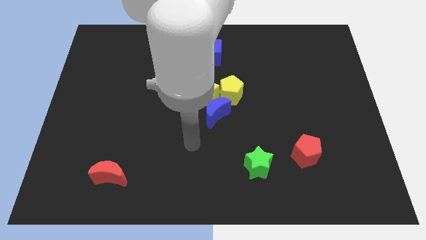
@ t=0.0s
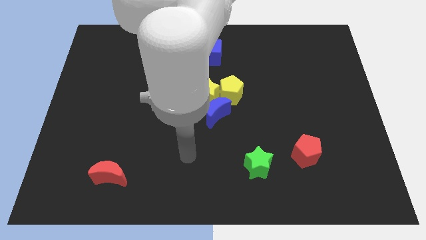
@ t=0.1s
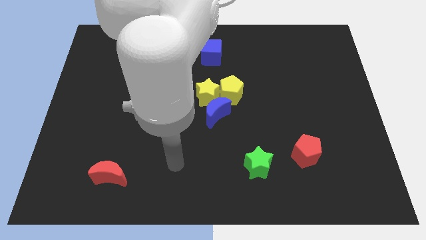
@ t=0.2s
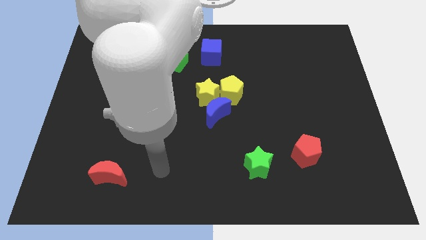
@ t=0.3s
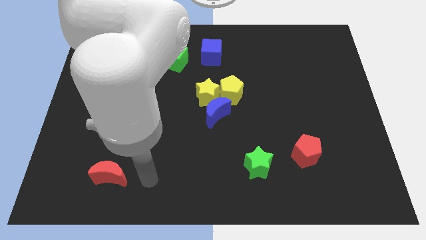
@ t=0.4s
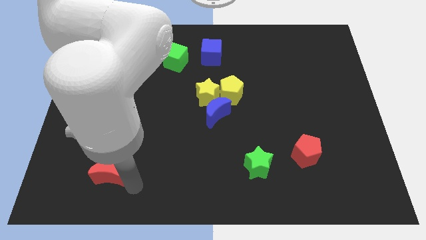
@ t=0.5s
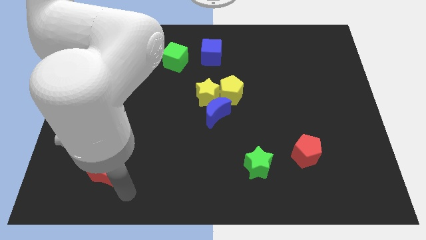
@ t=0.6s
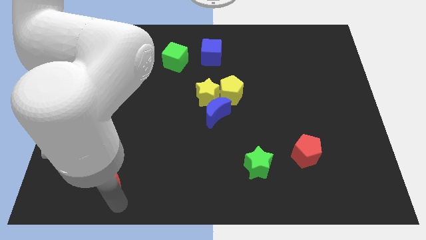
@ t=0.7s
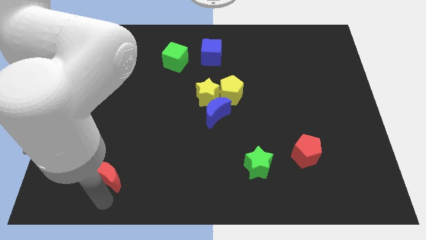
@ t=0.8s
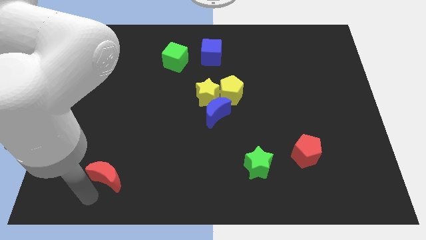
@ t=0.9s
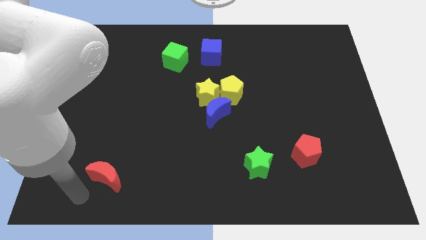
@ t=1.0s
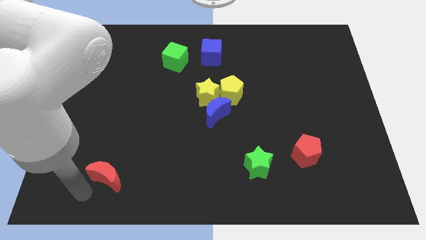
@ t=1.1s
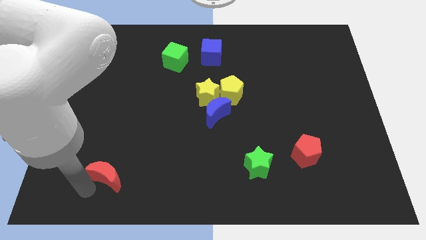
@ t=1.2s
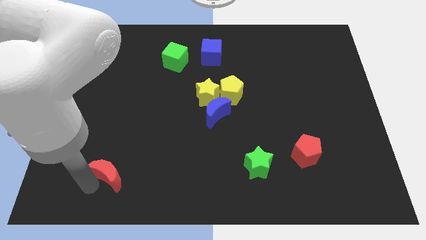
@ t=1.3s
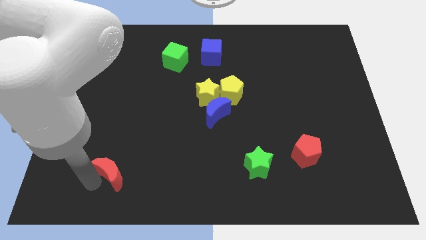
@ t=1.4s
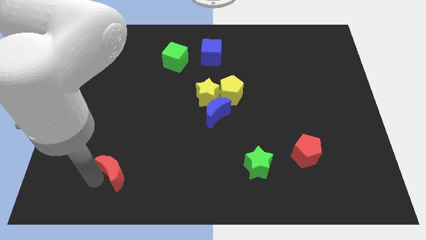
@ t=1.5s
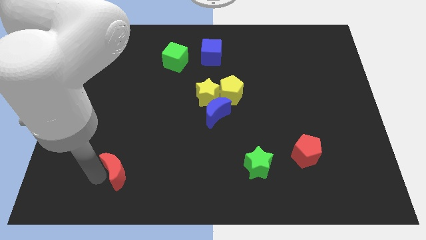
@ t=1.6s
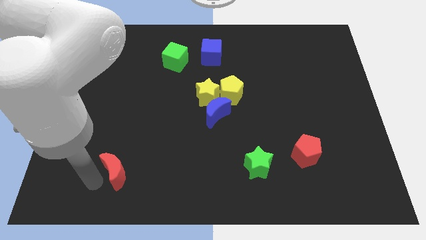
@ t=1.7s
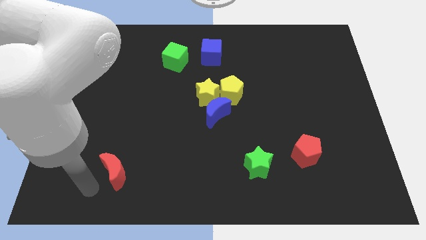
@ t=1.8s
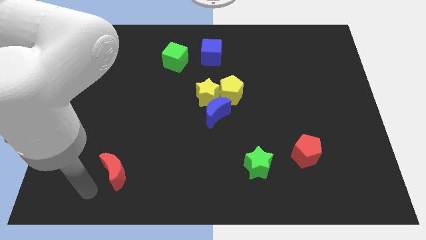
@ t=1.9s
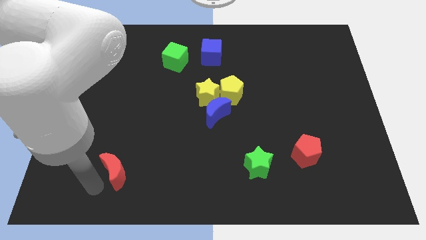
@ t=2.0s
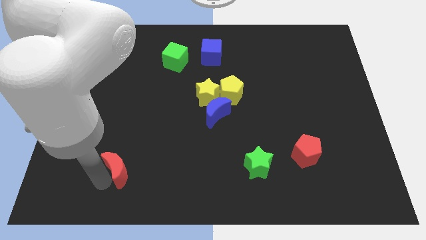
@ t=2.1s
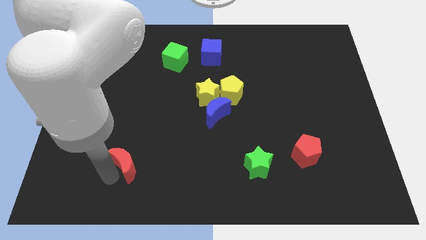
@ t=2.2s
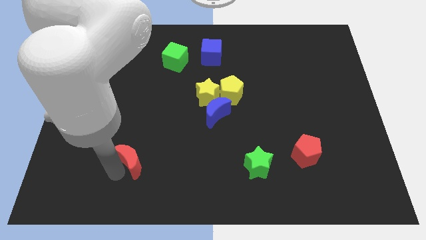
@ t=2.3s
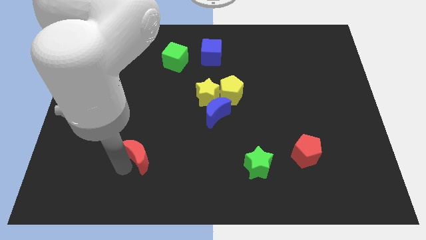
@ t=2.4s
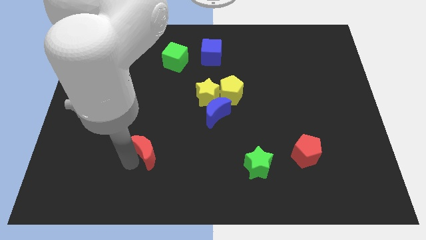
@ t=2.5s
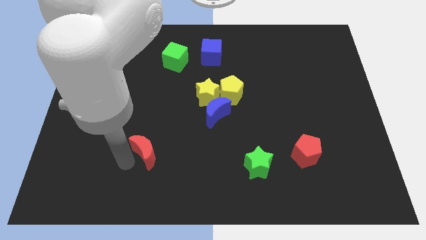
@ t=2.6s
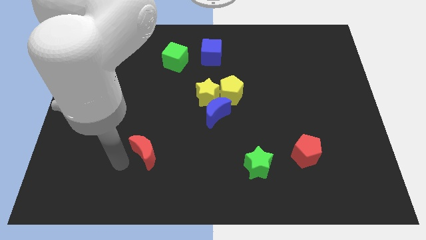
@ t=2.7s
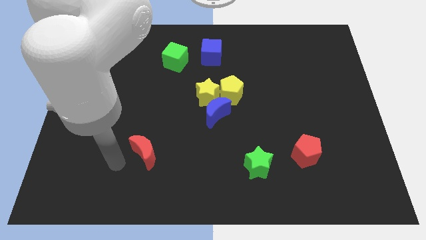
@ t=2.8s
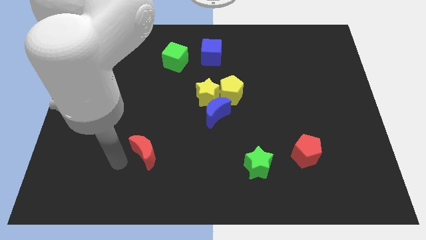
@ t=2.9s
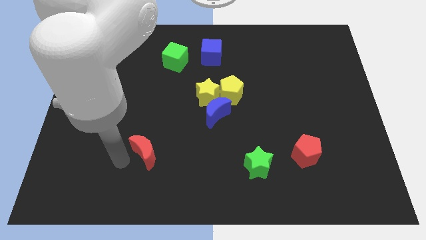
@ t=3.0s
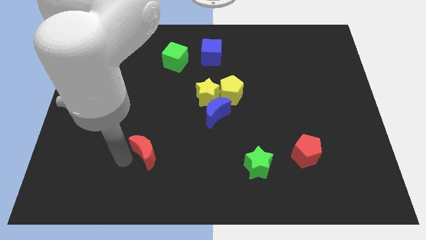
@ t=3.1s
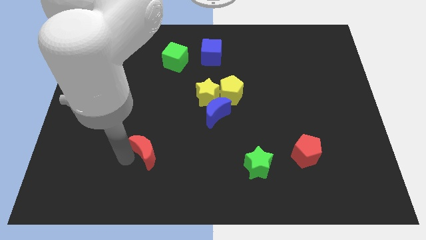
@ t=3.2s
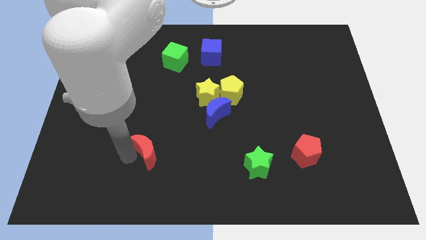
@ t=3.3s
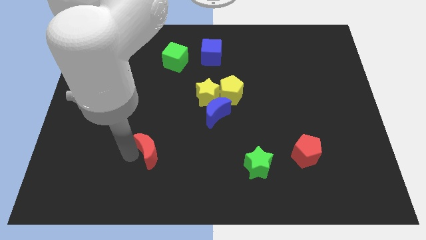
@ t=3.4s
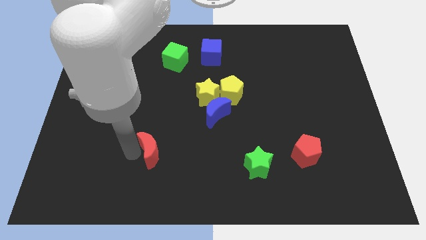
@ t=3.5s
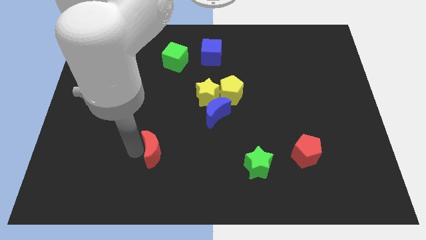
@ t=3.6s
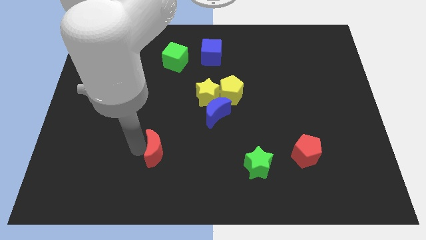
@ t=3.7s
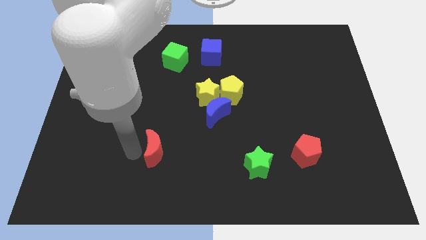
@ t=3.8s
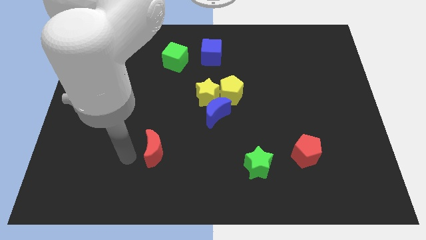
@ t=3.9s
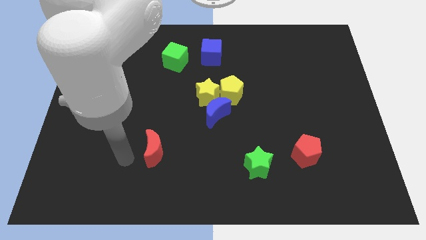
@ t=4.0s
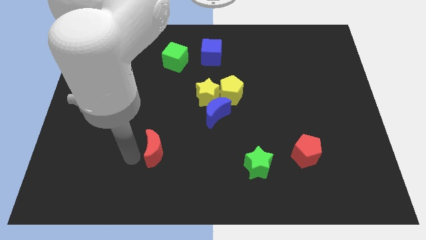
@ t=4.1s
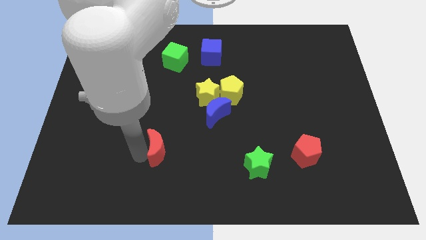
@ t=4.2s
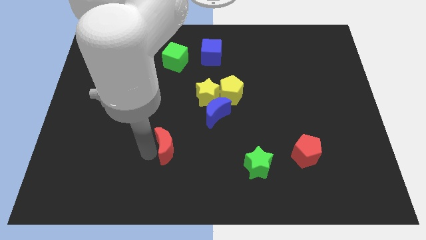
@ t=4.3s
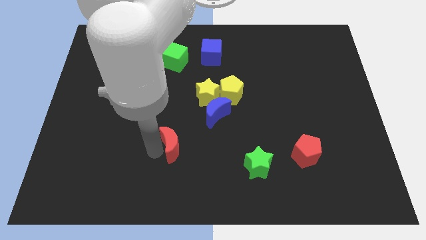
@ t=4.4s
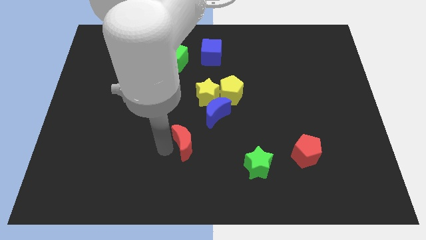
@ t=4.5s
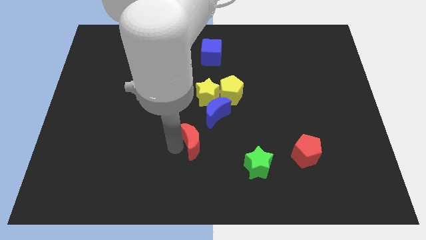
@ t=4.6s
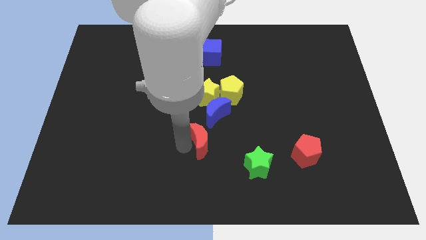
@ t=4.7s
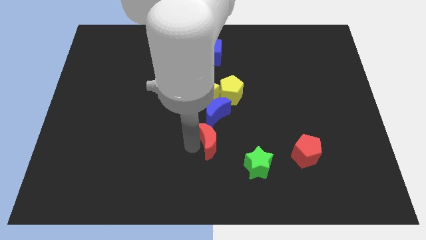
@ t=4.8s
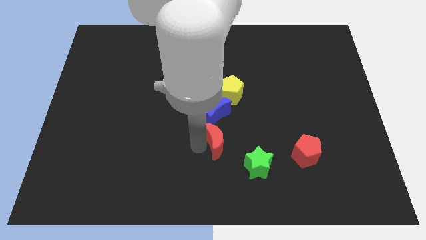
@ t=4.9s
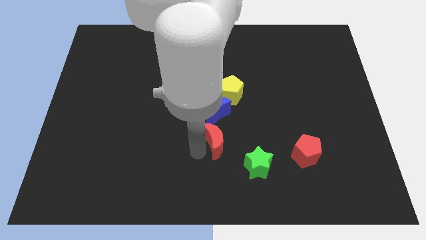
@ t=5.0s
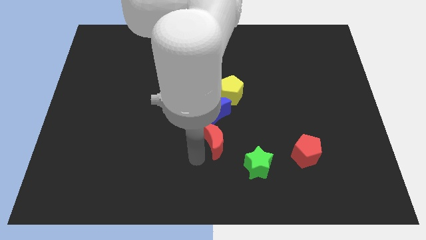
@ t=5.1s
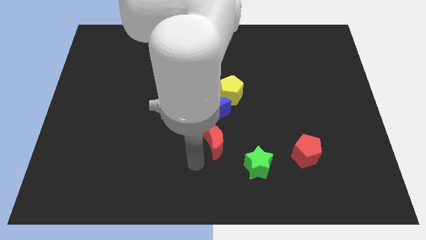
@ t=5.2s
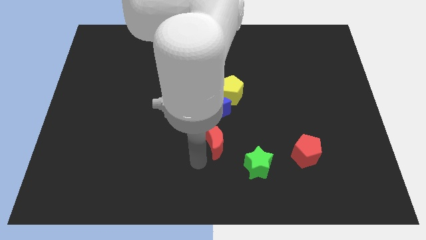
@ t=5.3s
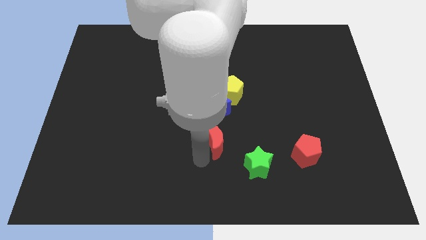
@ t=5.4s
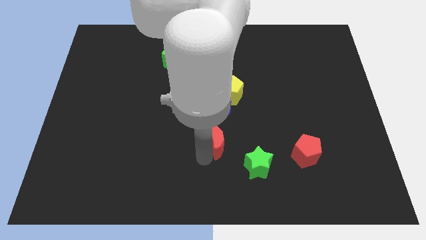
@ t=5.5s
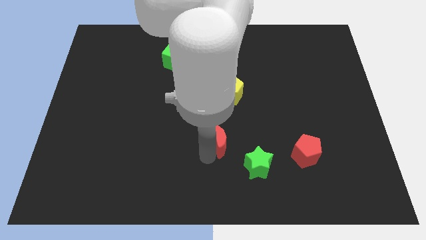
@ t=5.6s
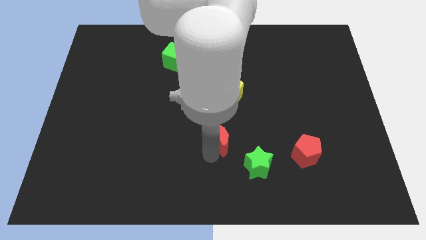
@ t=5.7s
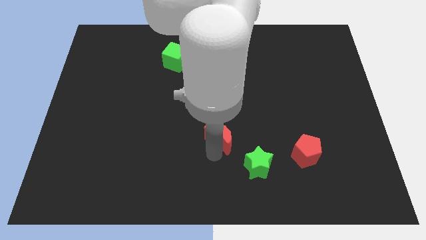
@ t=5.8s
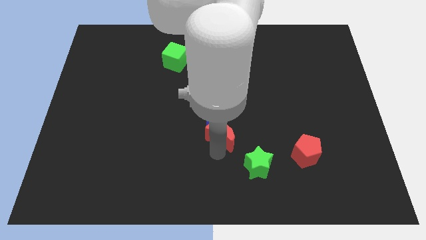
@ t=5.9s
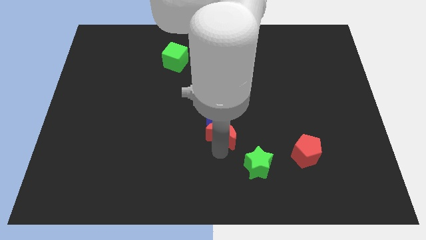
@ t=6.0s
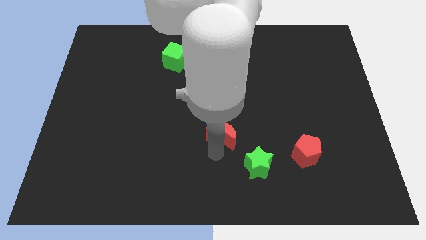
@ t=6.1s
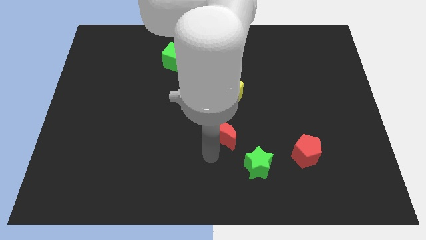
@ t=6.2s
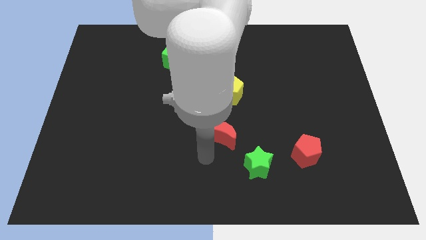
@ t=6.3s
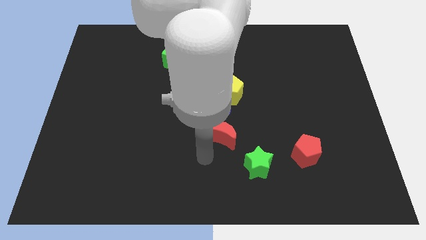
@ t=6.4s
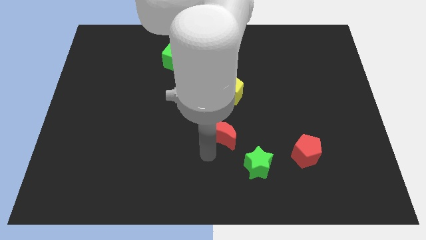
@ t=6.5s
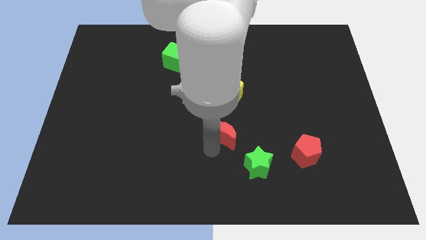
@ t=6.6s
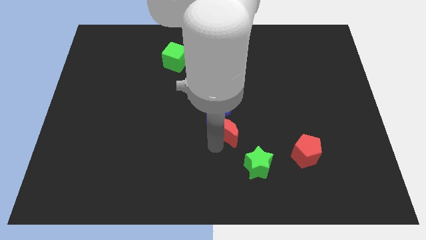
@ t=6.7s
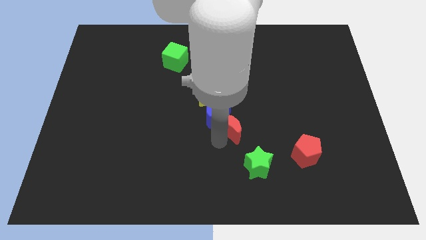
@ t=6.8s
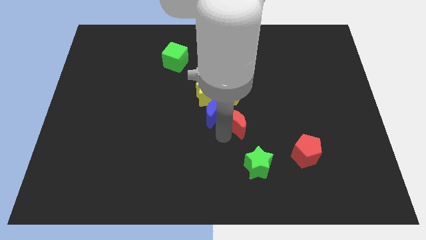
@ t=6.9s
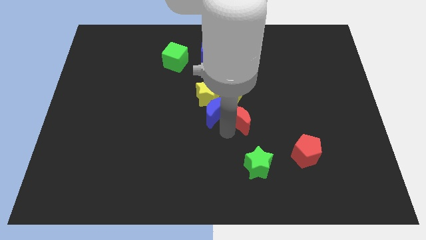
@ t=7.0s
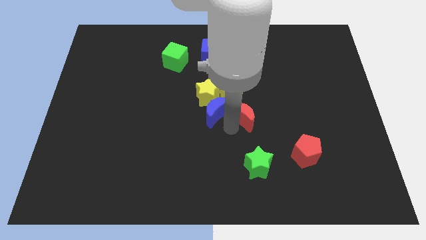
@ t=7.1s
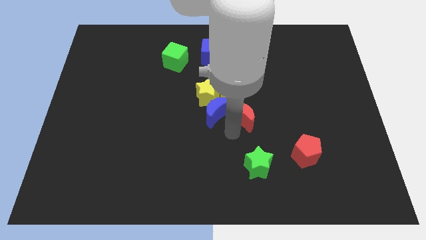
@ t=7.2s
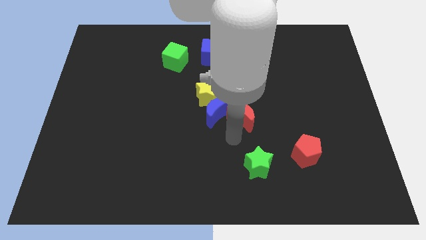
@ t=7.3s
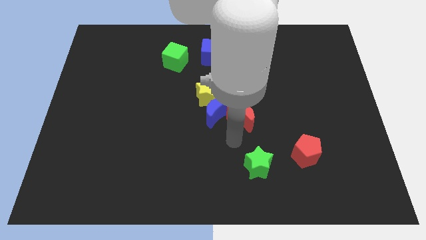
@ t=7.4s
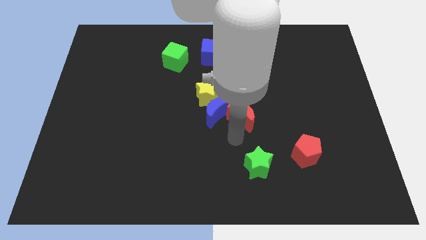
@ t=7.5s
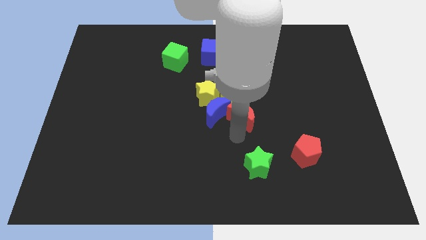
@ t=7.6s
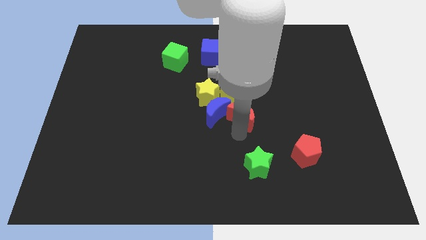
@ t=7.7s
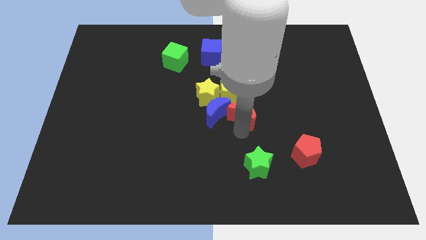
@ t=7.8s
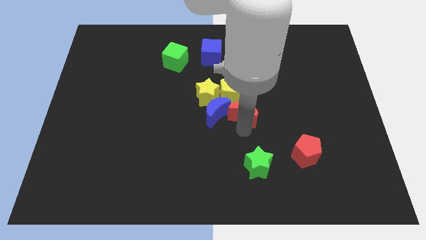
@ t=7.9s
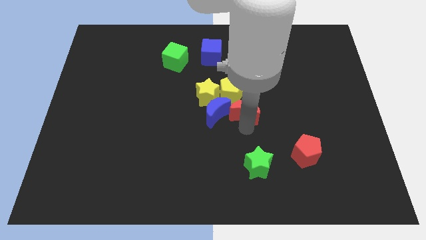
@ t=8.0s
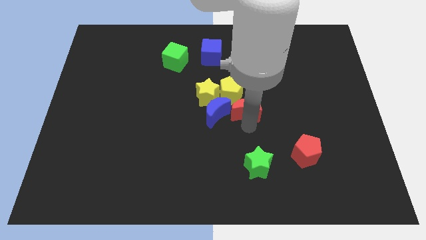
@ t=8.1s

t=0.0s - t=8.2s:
slide the red moon just right of the yellow star
